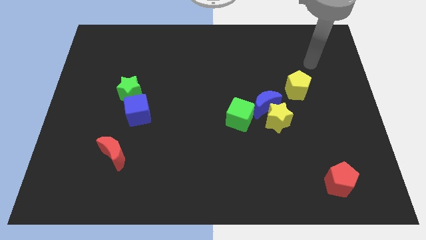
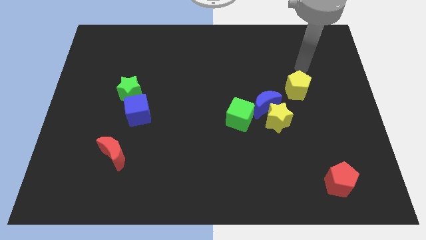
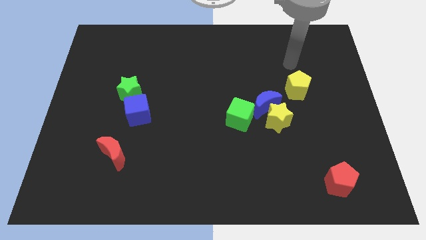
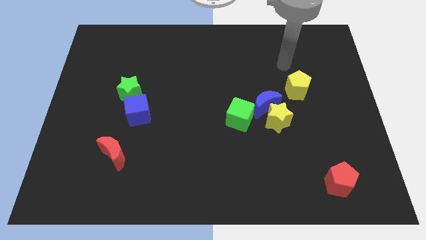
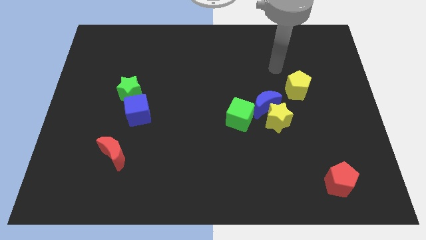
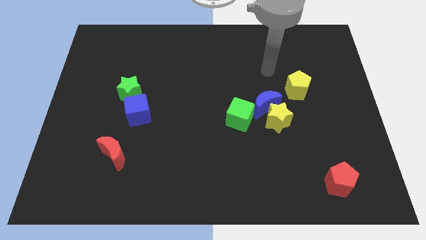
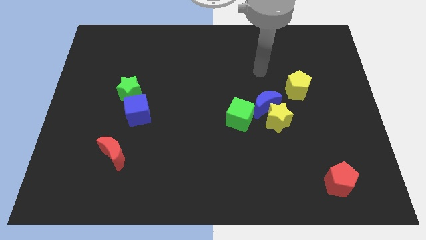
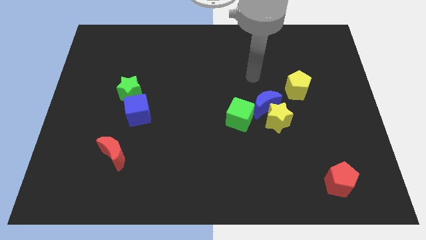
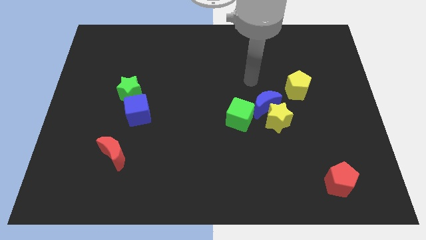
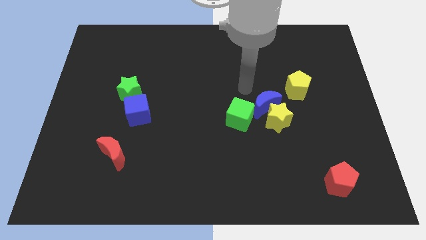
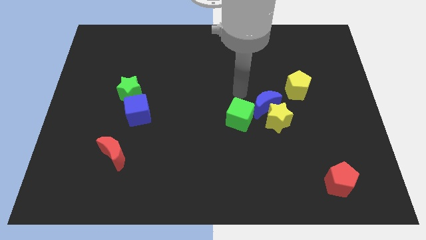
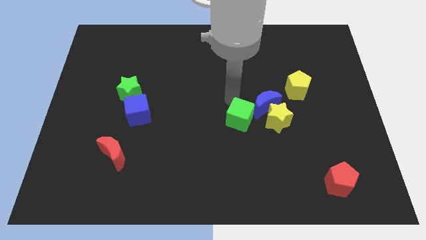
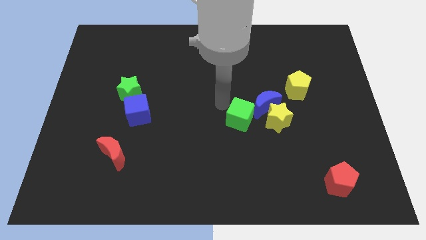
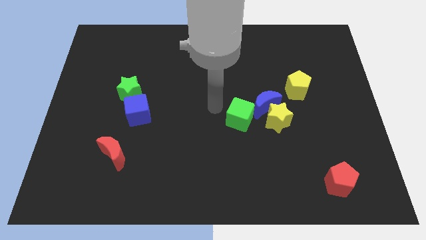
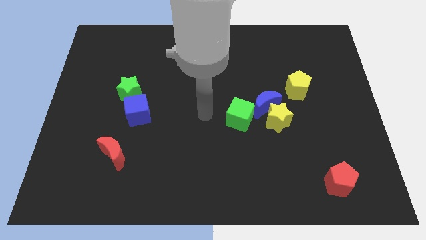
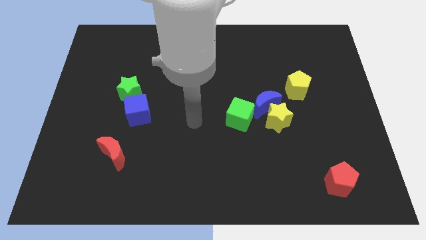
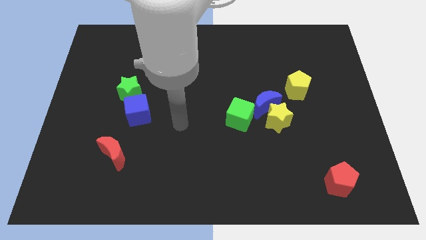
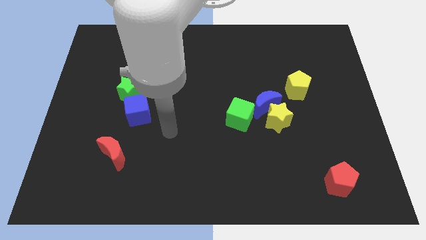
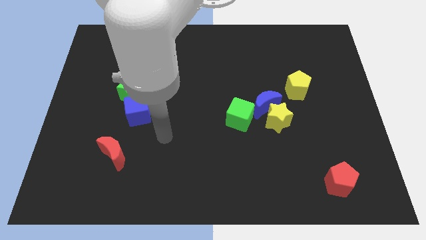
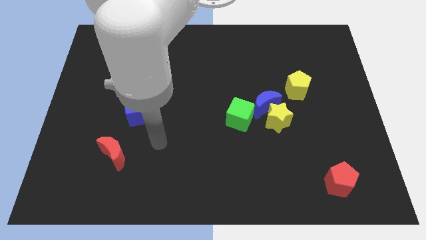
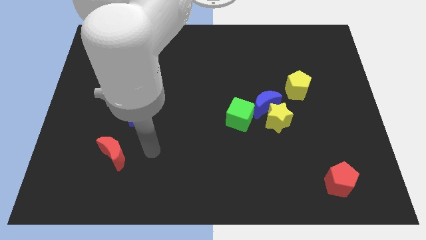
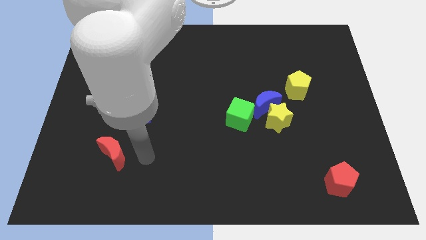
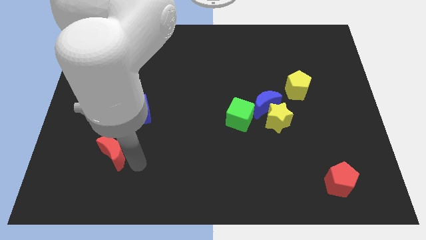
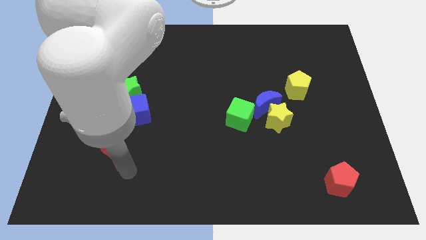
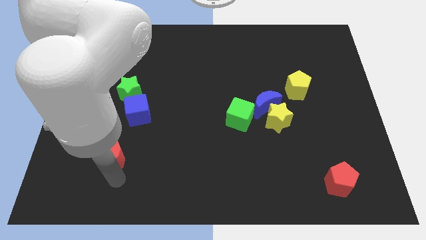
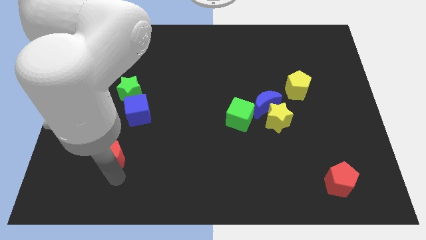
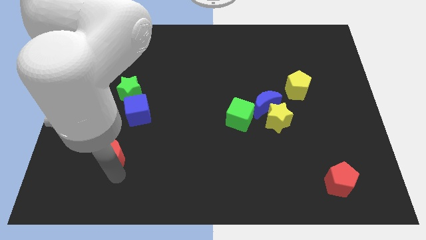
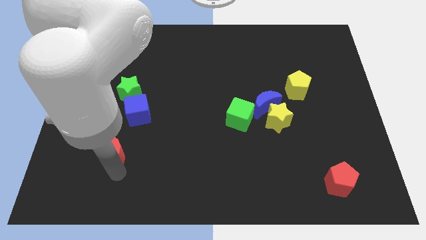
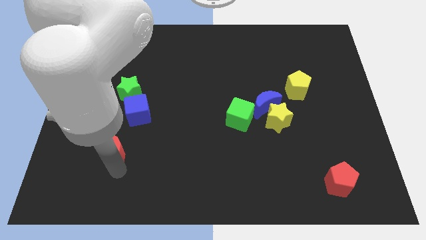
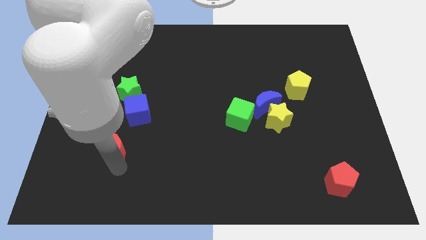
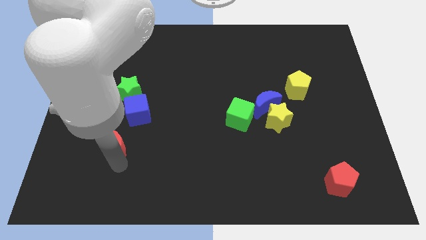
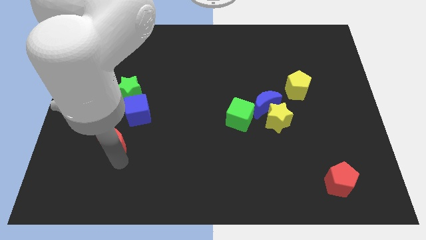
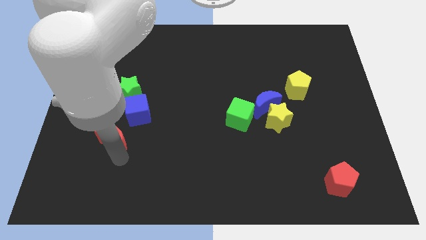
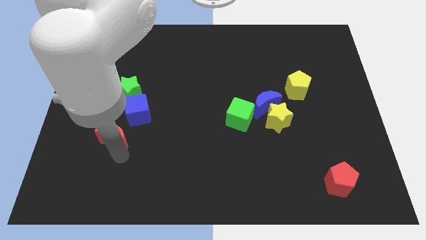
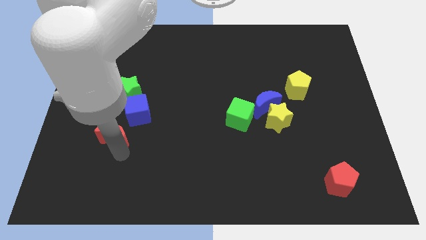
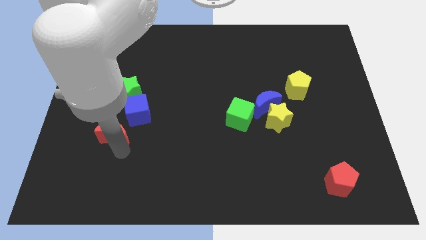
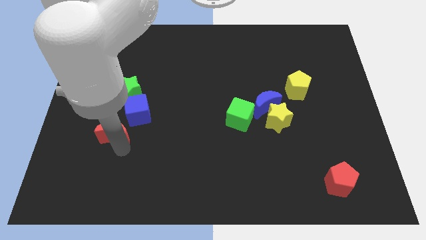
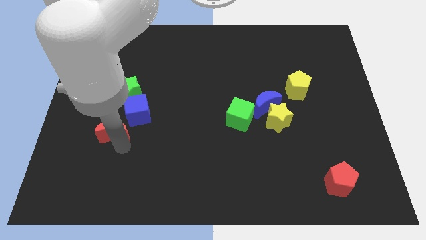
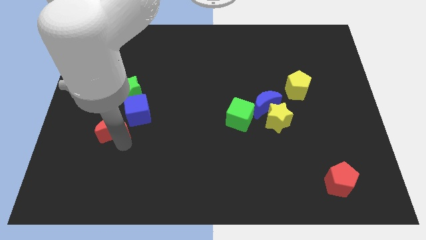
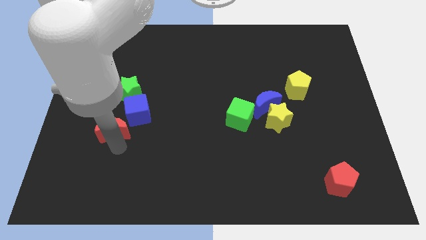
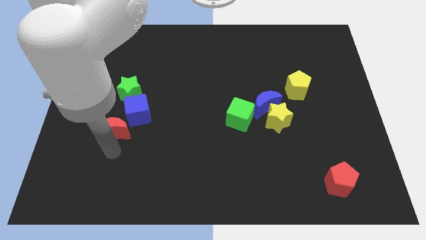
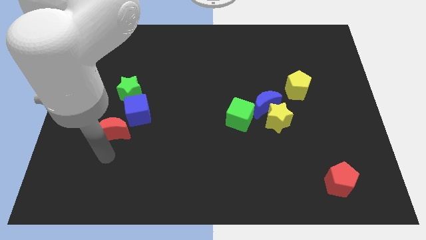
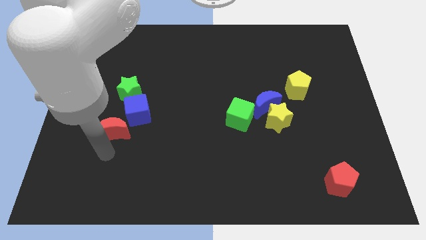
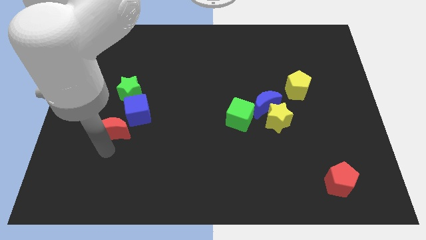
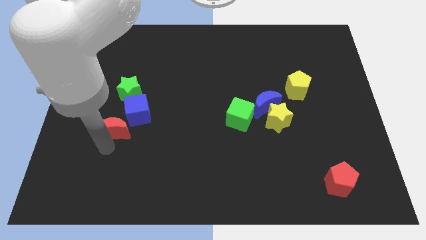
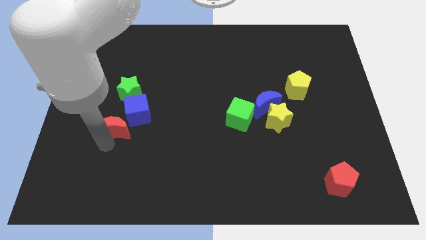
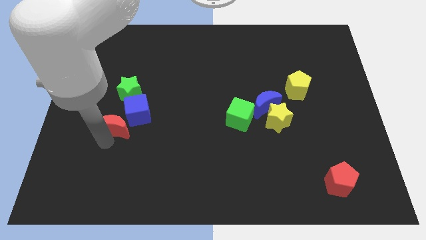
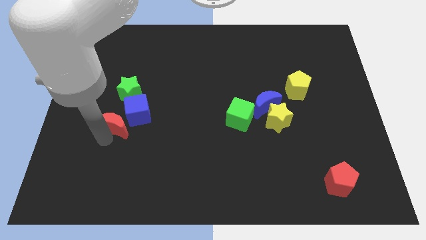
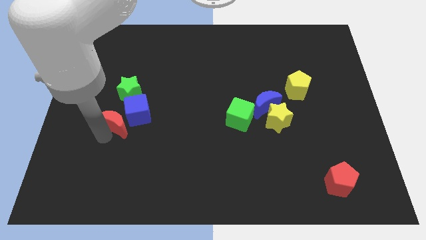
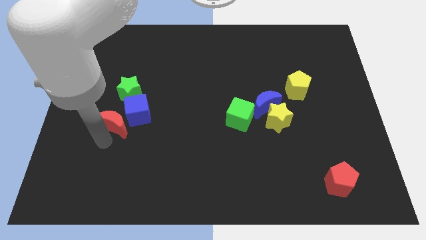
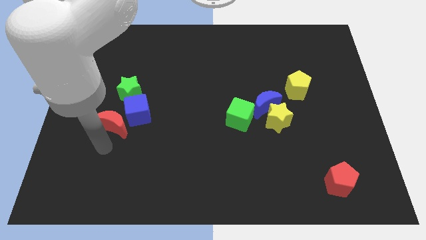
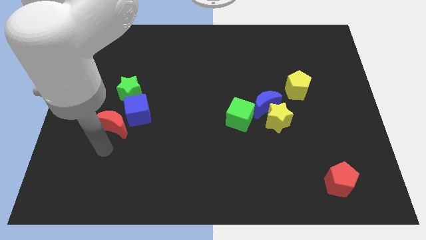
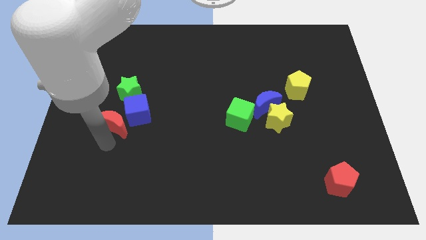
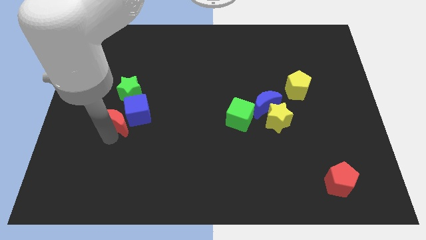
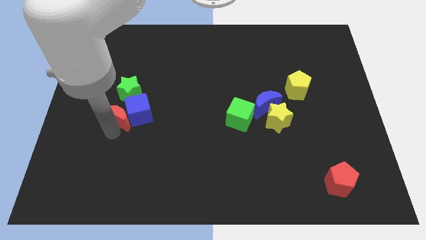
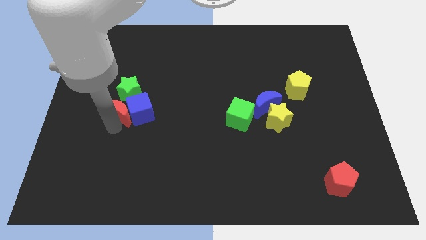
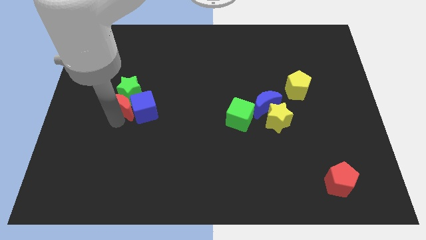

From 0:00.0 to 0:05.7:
slide the red moon close to the green star

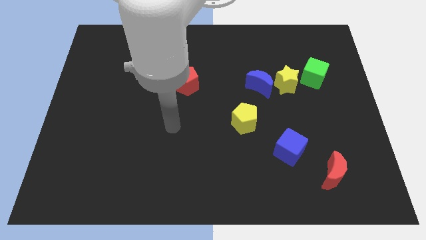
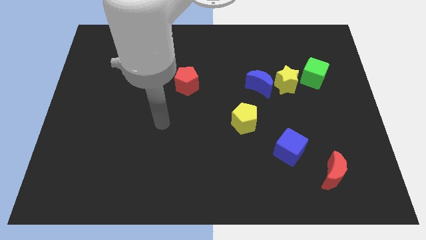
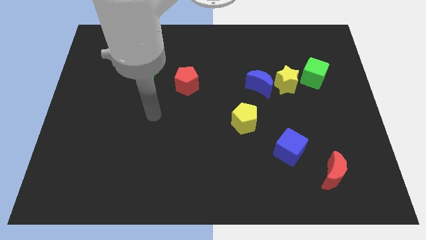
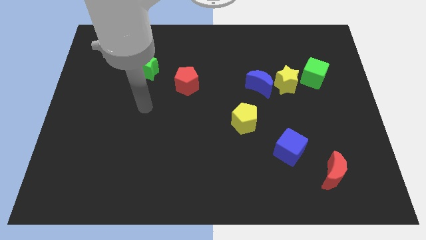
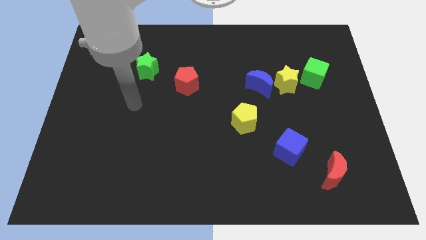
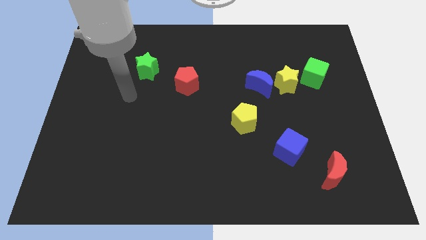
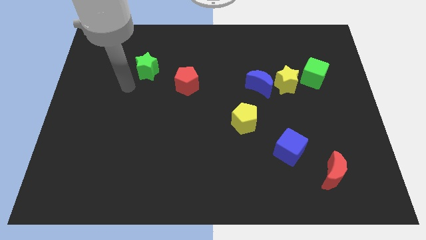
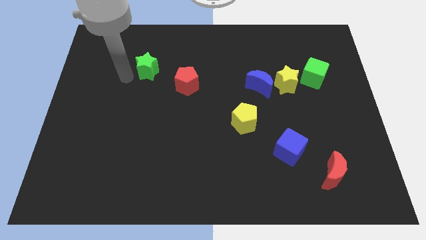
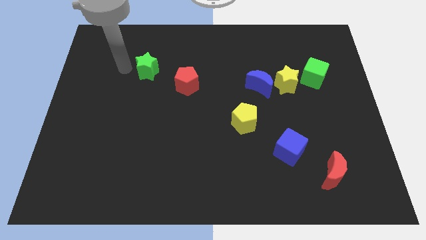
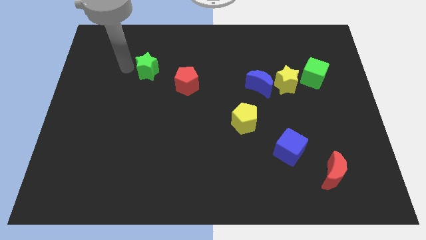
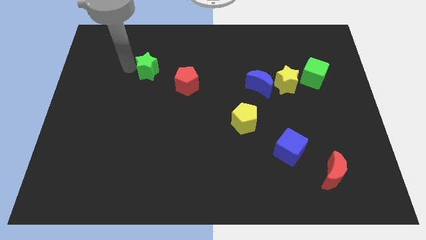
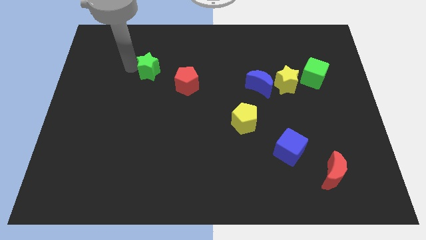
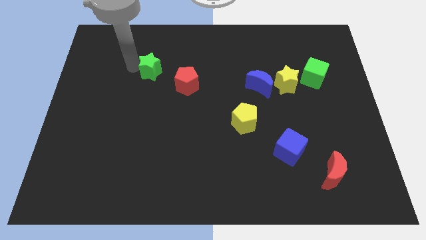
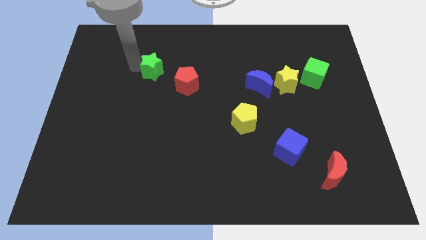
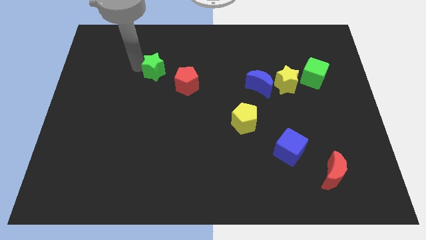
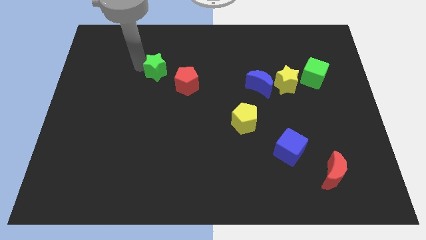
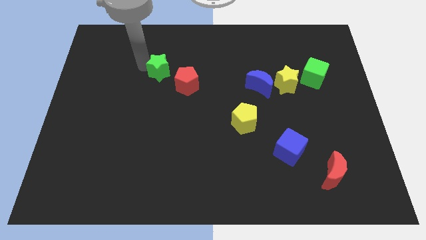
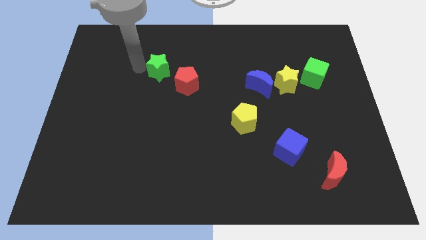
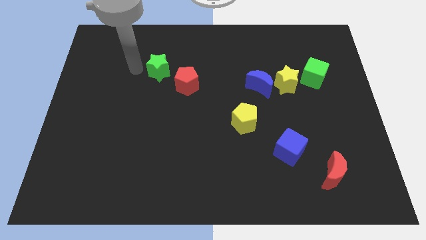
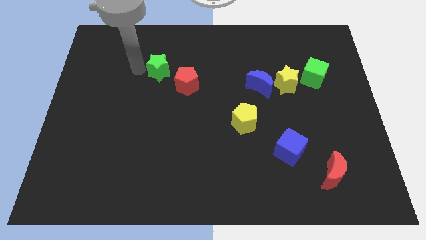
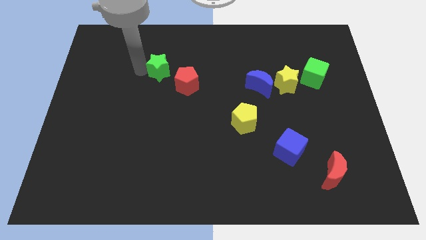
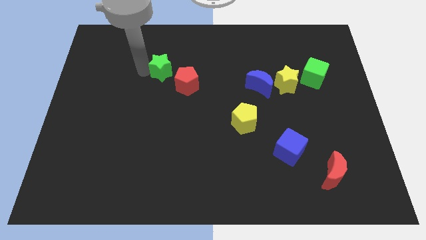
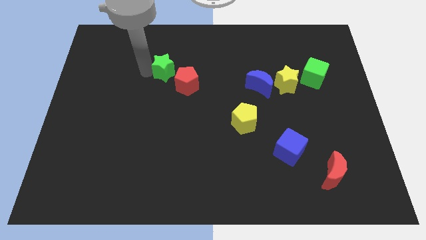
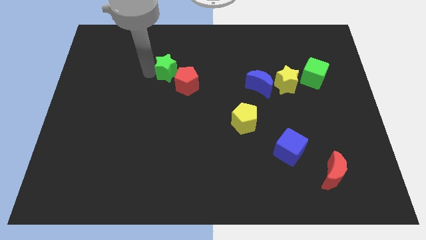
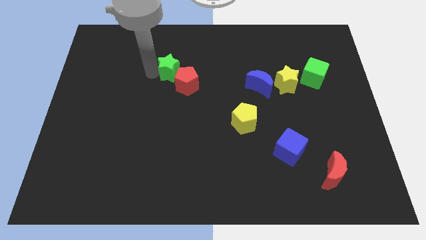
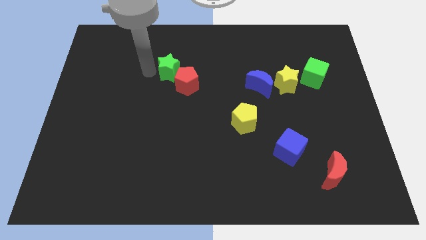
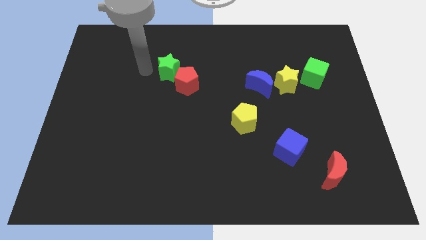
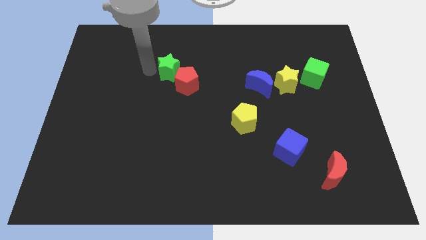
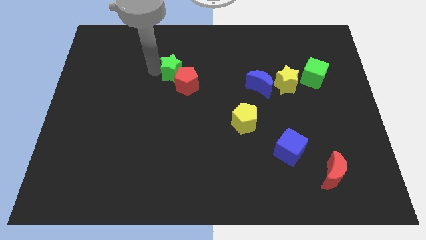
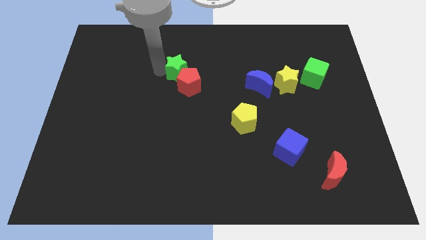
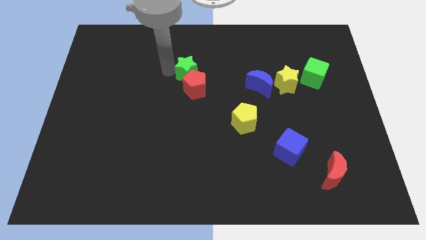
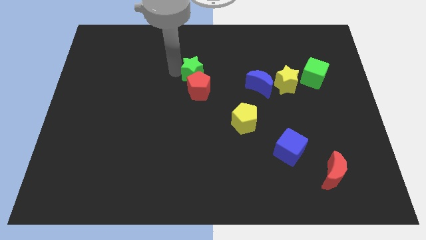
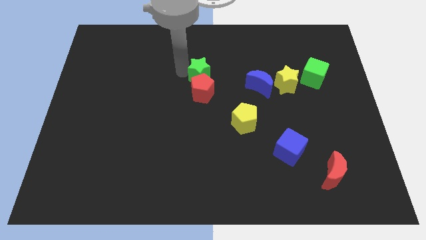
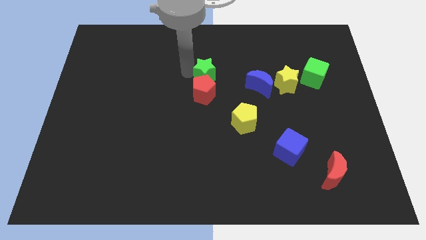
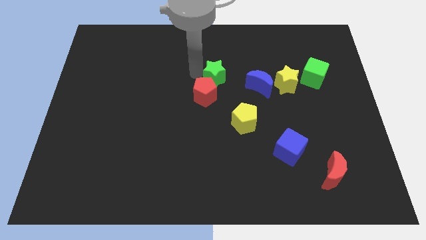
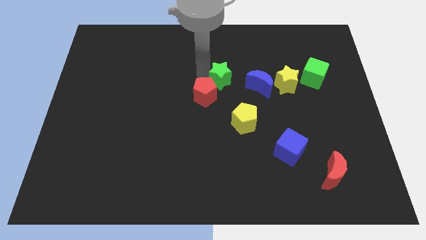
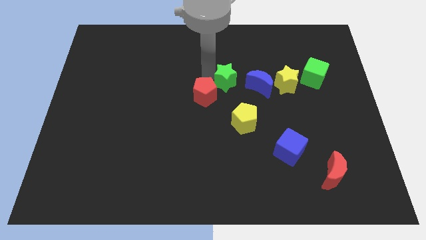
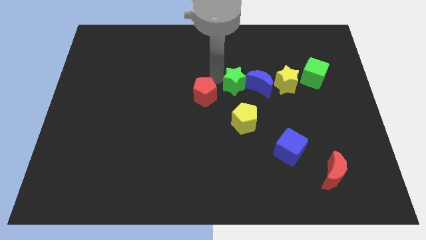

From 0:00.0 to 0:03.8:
put the green star close to the blue moon
